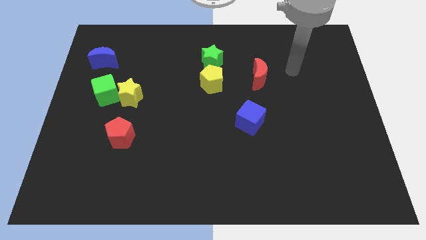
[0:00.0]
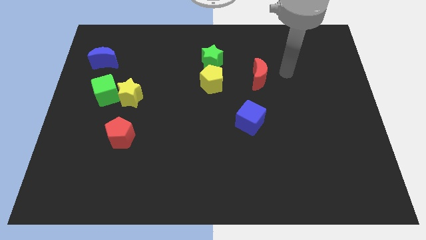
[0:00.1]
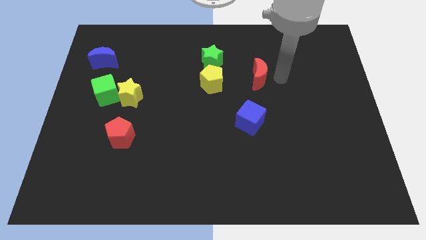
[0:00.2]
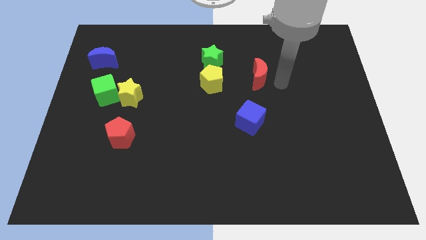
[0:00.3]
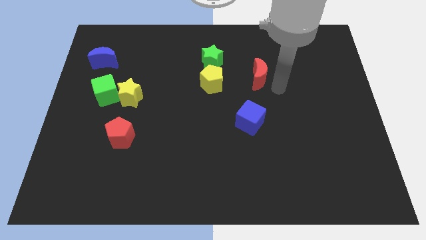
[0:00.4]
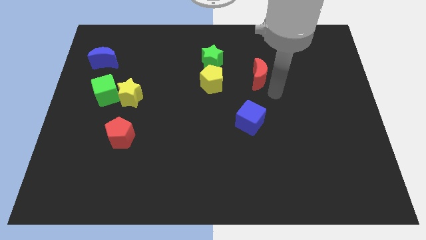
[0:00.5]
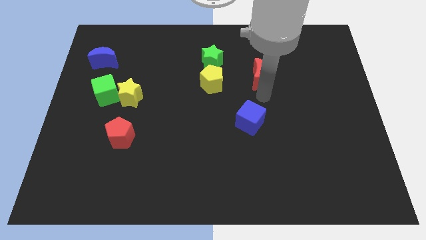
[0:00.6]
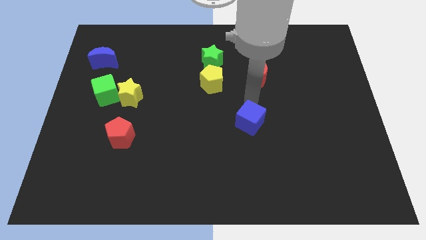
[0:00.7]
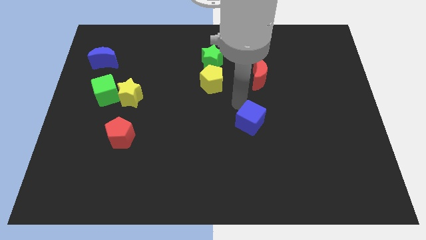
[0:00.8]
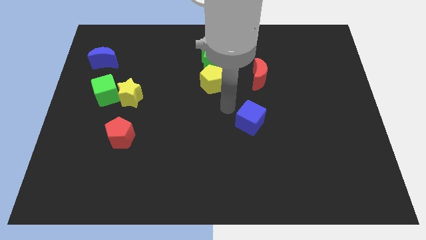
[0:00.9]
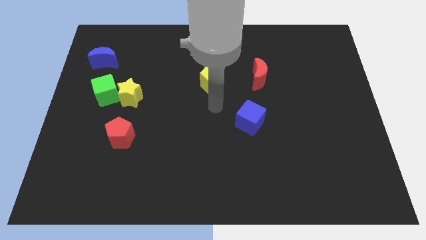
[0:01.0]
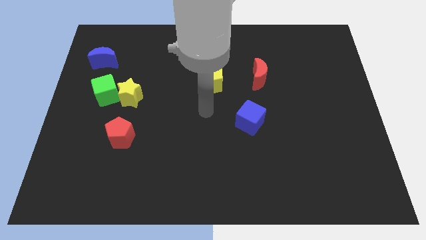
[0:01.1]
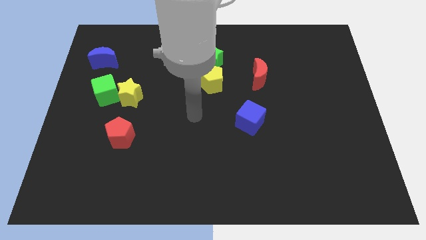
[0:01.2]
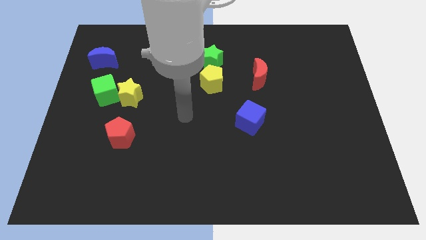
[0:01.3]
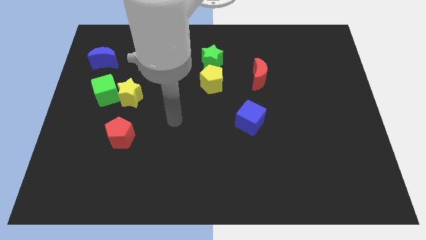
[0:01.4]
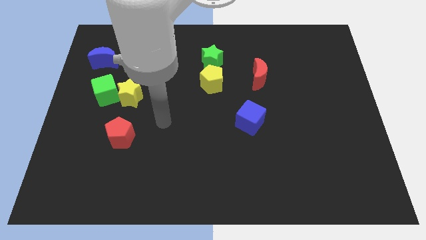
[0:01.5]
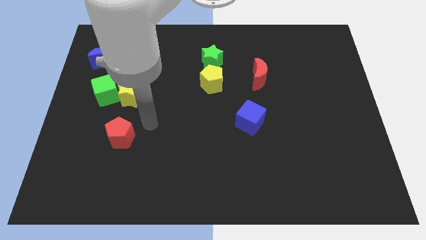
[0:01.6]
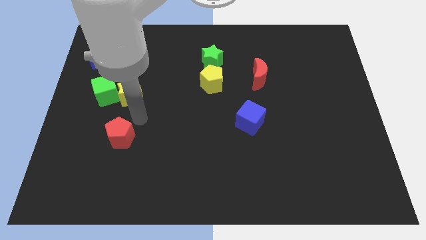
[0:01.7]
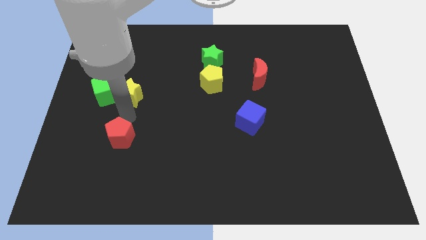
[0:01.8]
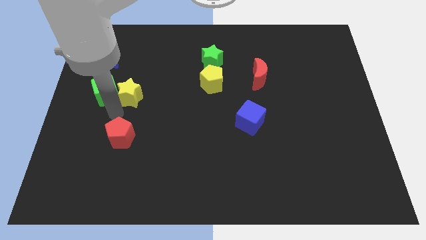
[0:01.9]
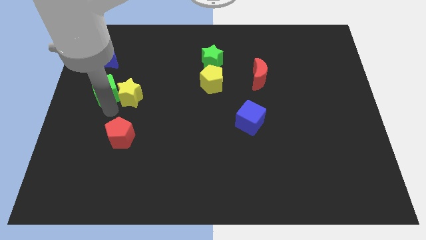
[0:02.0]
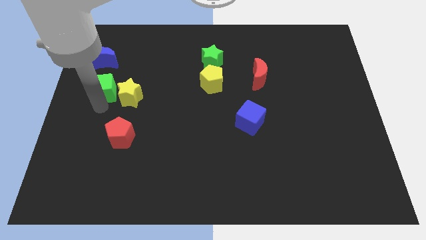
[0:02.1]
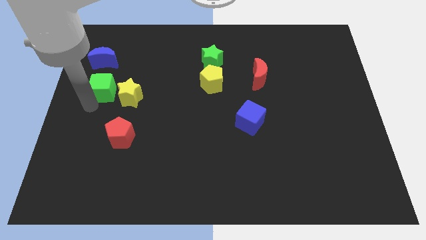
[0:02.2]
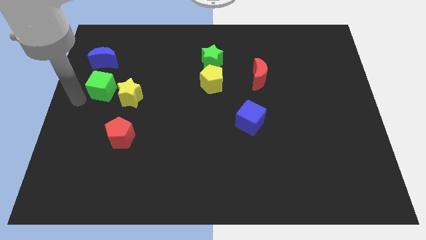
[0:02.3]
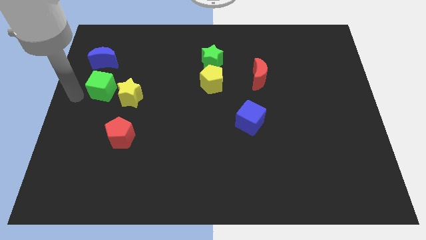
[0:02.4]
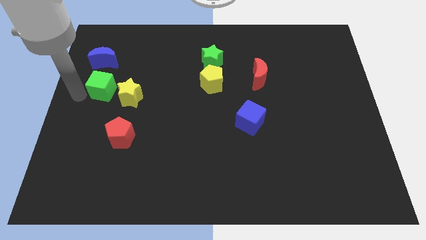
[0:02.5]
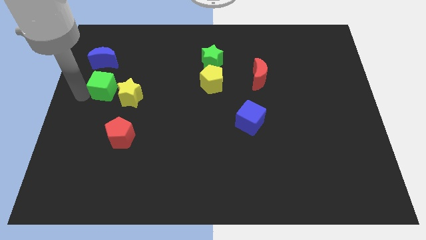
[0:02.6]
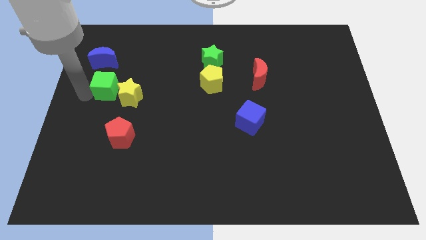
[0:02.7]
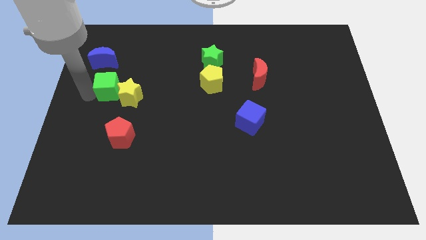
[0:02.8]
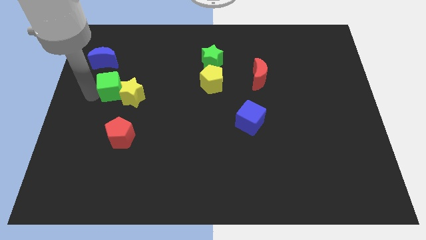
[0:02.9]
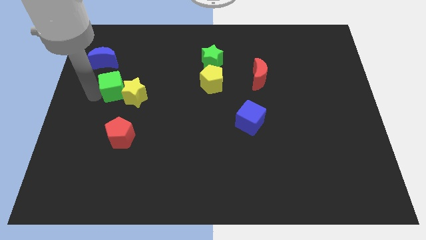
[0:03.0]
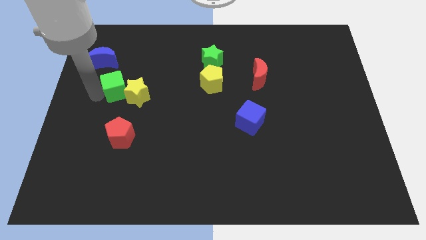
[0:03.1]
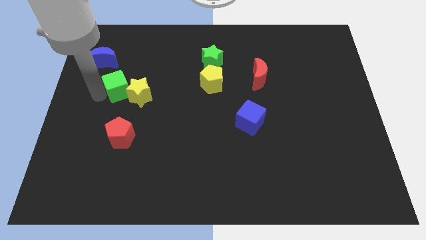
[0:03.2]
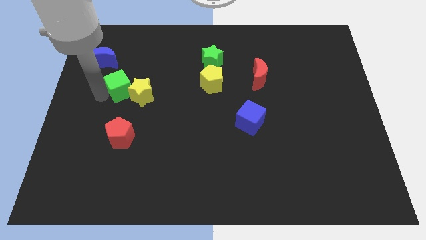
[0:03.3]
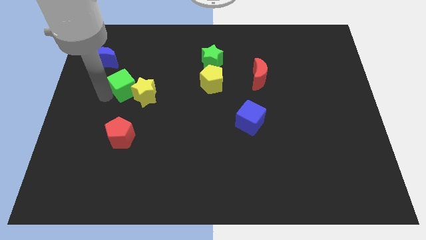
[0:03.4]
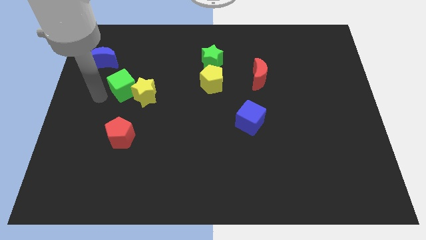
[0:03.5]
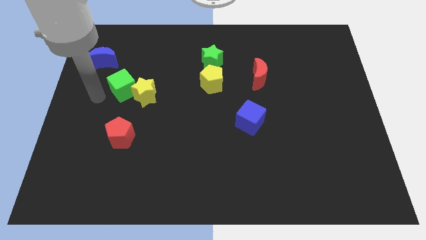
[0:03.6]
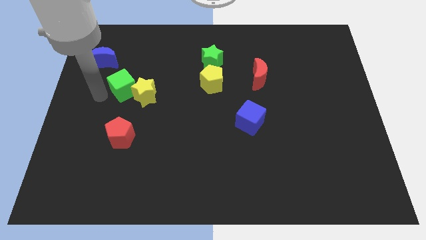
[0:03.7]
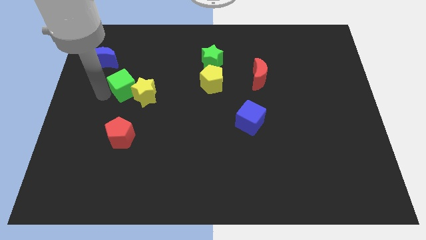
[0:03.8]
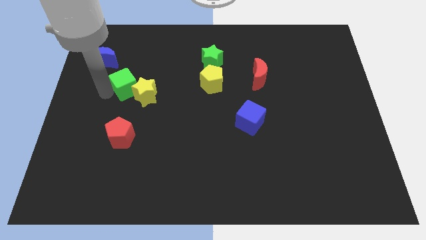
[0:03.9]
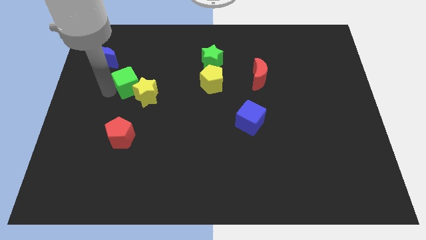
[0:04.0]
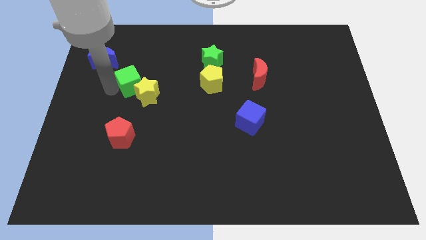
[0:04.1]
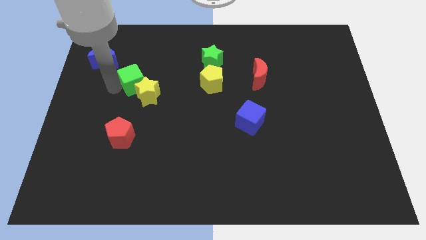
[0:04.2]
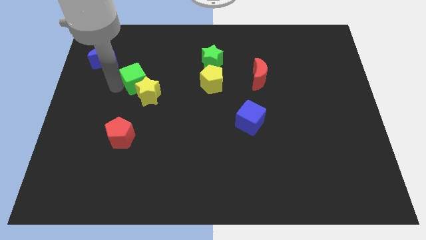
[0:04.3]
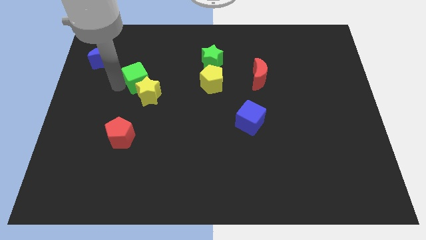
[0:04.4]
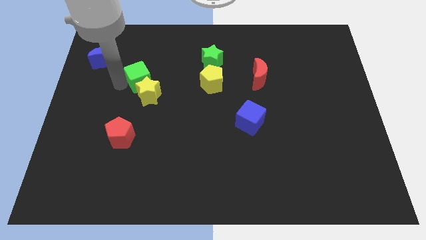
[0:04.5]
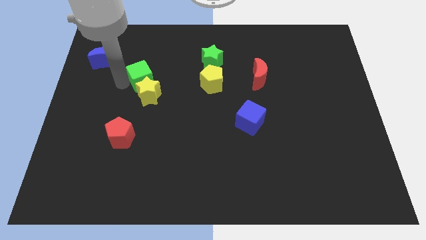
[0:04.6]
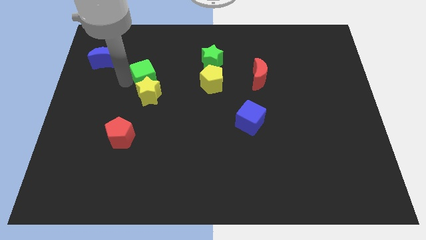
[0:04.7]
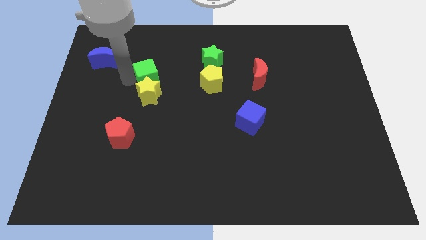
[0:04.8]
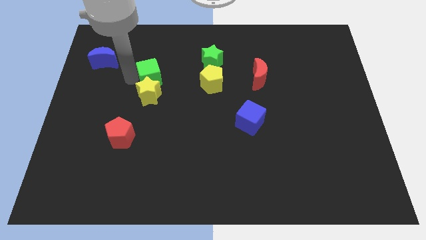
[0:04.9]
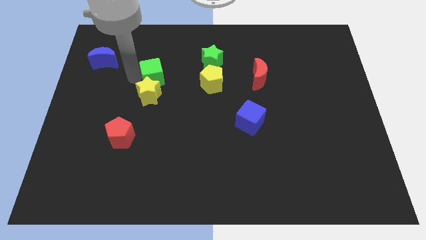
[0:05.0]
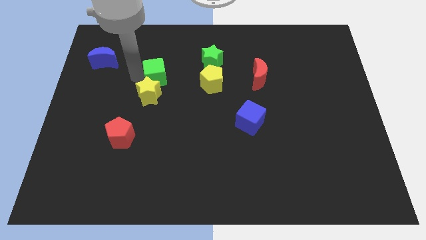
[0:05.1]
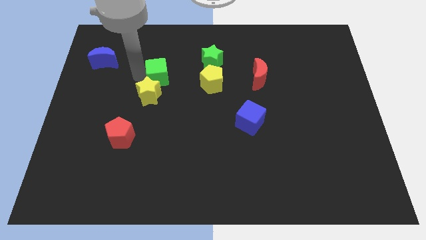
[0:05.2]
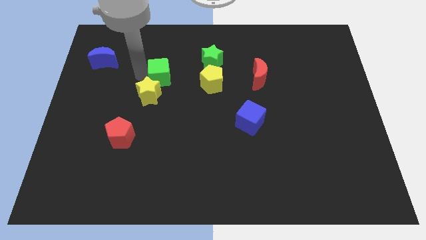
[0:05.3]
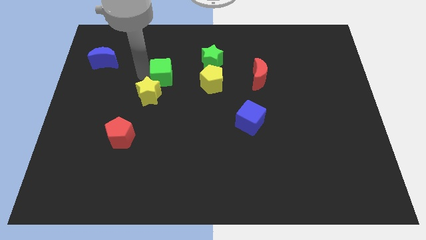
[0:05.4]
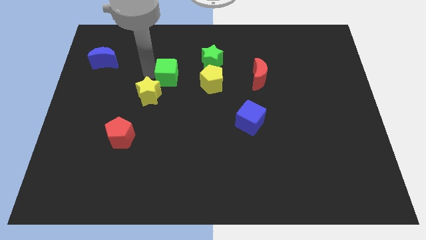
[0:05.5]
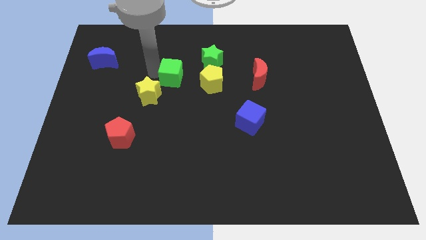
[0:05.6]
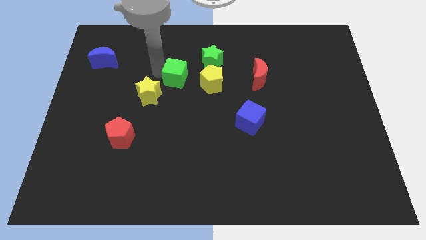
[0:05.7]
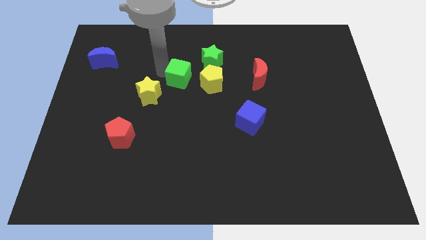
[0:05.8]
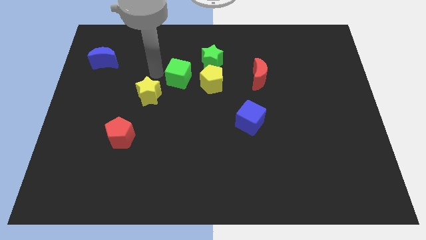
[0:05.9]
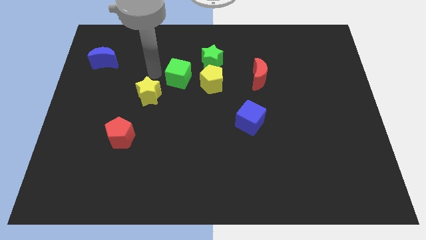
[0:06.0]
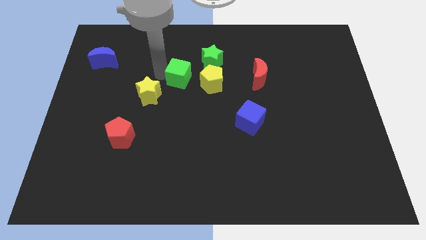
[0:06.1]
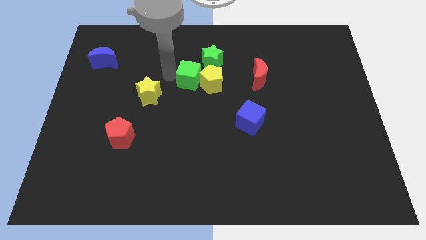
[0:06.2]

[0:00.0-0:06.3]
put the green cube towards the yellow pentagon

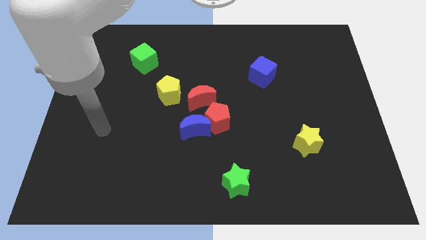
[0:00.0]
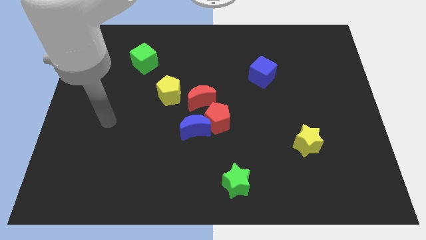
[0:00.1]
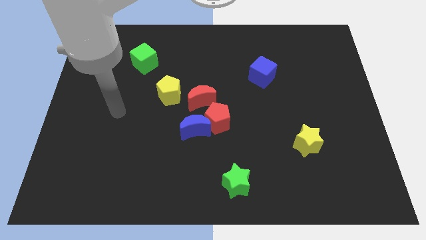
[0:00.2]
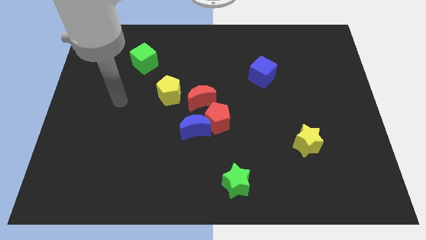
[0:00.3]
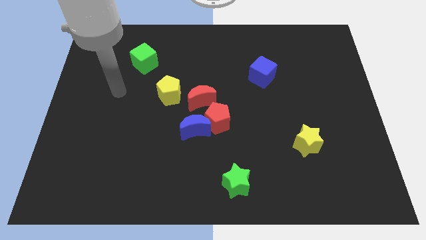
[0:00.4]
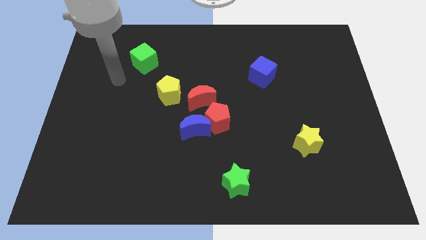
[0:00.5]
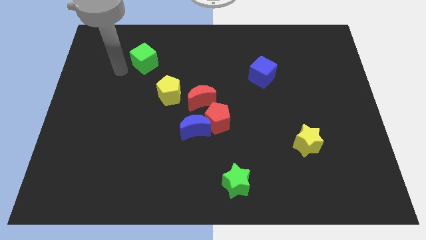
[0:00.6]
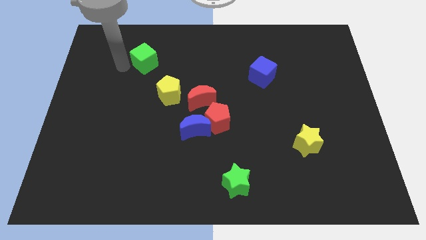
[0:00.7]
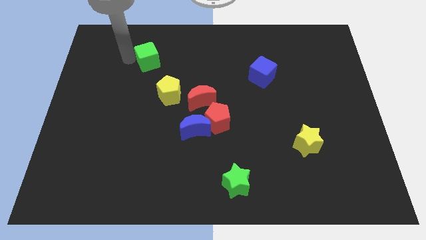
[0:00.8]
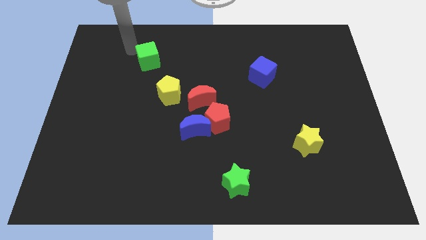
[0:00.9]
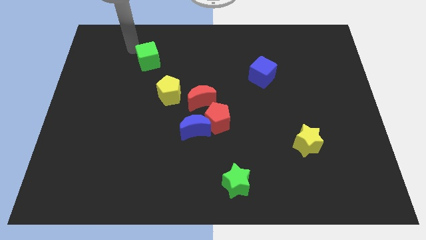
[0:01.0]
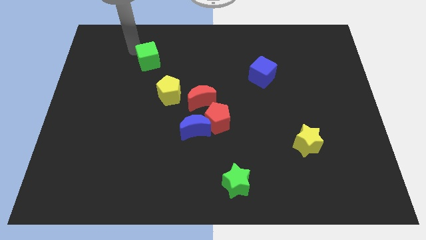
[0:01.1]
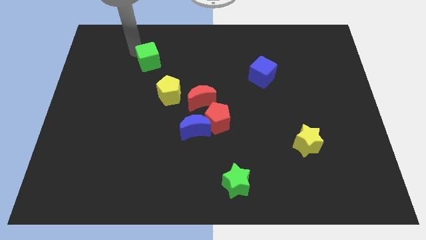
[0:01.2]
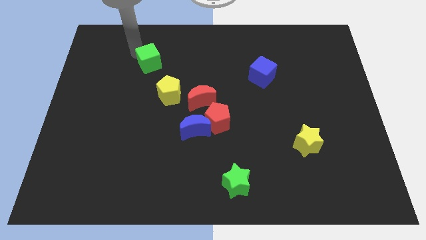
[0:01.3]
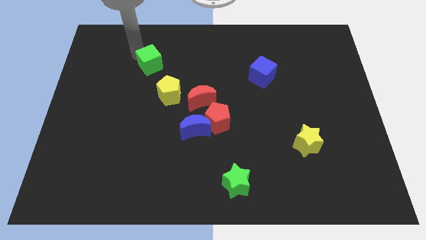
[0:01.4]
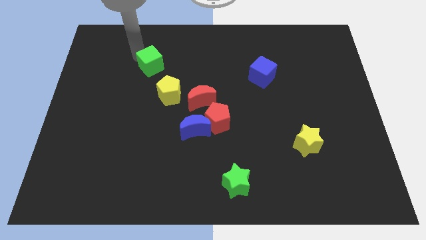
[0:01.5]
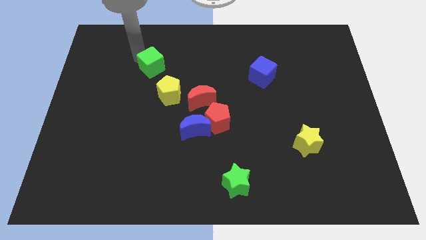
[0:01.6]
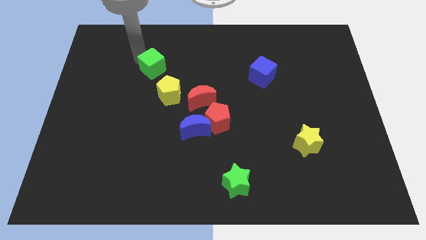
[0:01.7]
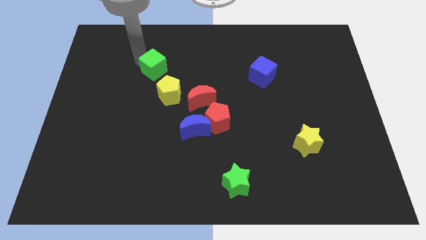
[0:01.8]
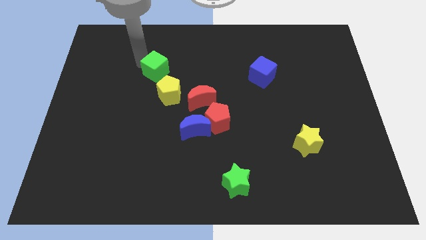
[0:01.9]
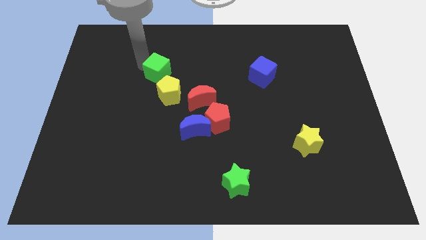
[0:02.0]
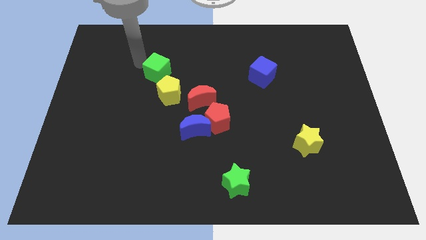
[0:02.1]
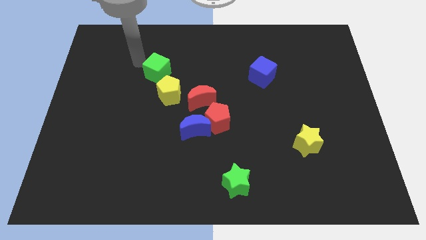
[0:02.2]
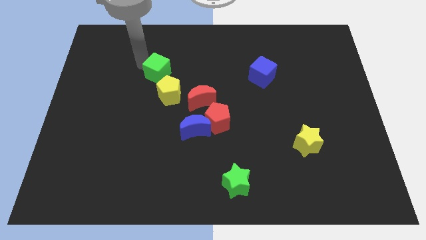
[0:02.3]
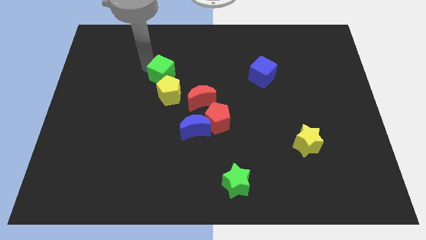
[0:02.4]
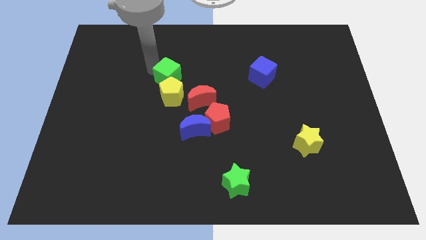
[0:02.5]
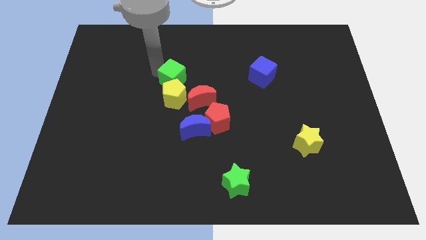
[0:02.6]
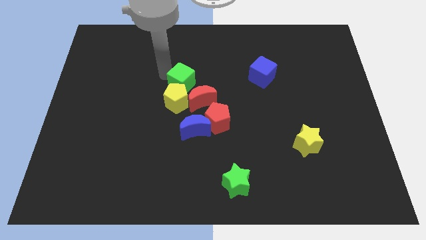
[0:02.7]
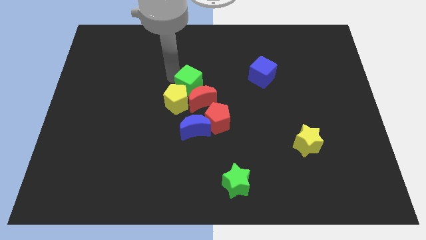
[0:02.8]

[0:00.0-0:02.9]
slide the green cube to the red moon
